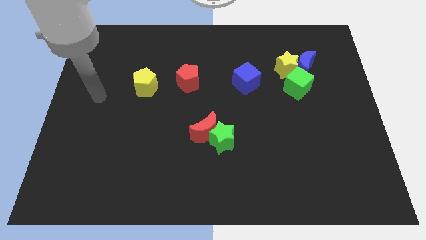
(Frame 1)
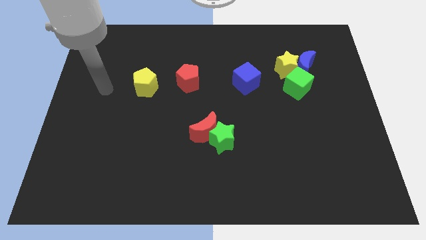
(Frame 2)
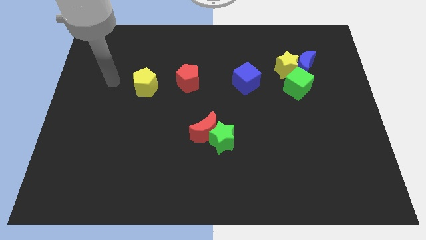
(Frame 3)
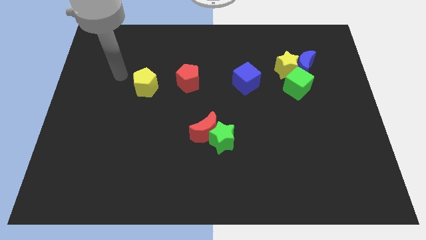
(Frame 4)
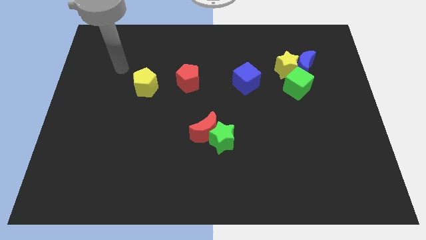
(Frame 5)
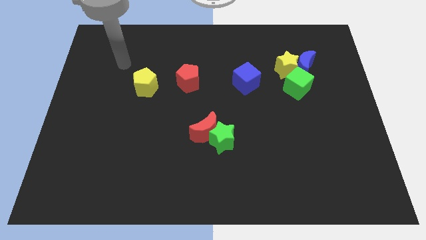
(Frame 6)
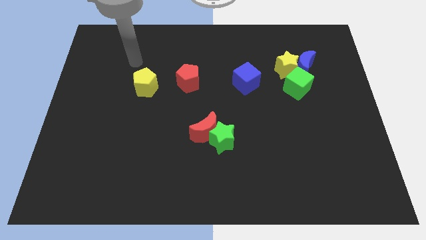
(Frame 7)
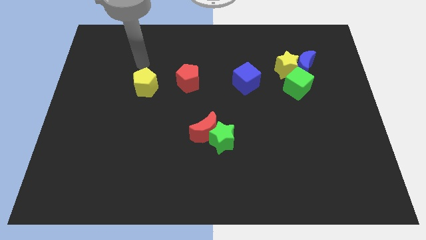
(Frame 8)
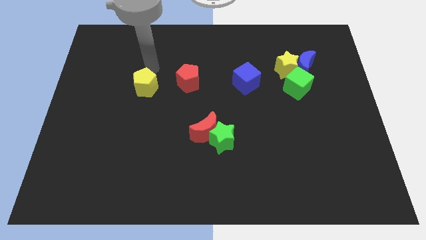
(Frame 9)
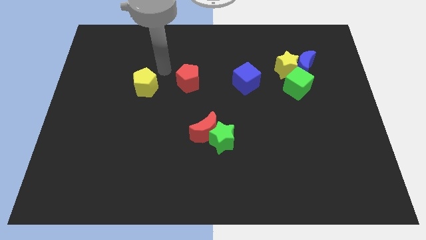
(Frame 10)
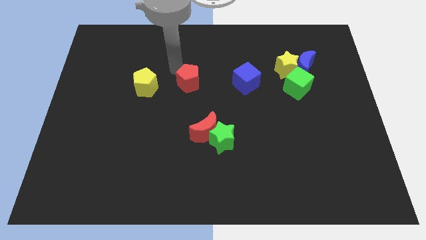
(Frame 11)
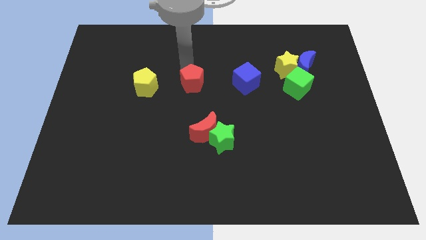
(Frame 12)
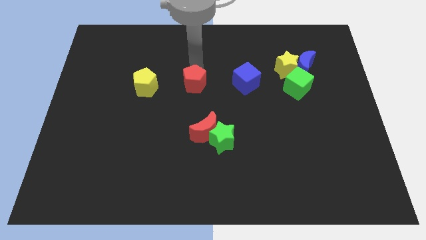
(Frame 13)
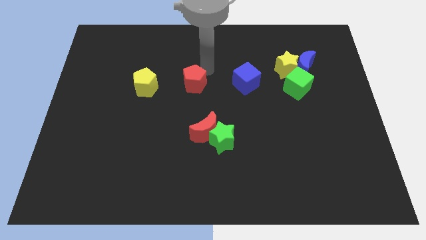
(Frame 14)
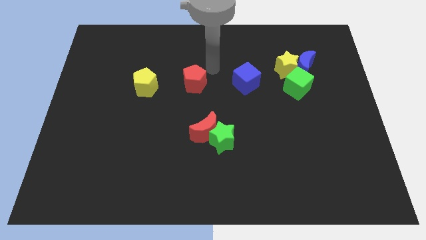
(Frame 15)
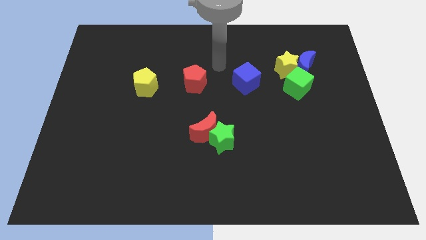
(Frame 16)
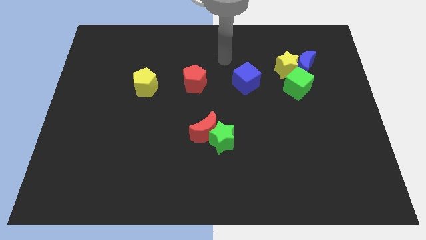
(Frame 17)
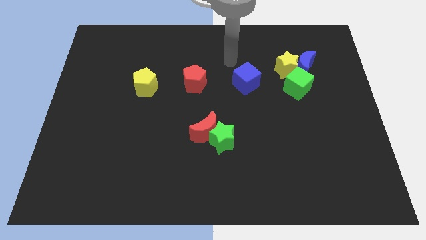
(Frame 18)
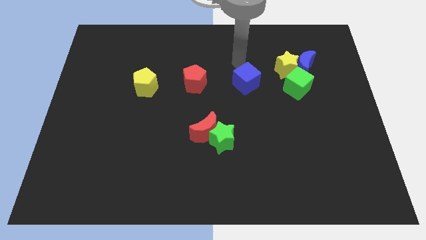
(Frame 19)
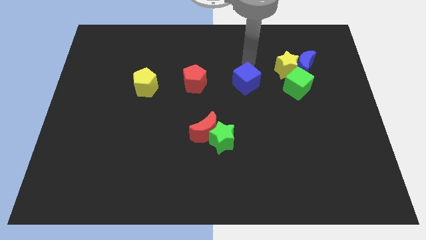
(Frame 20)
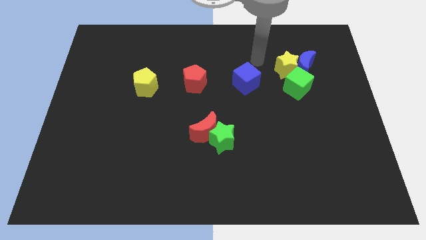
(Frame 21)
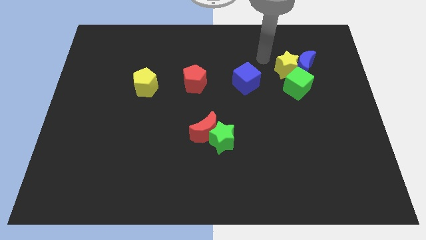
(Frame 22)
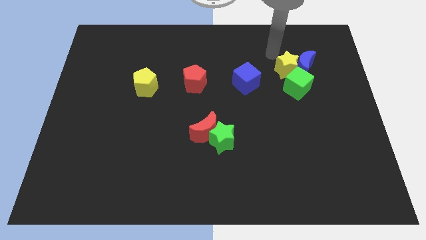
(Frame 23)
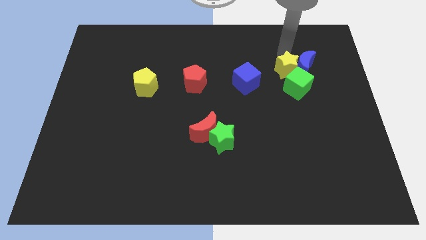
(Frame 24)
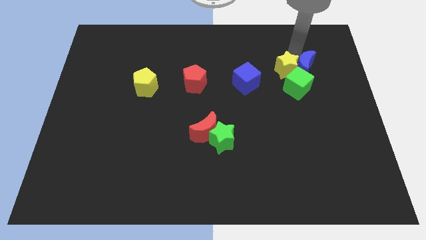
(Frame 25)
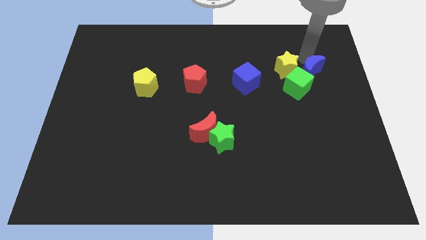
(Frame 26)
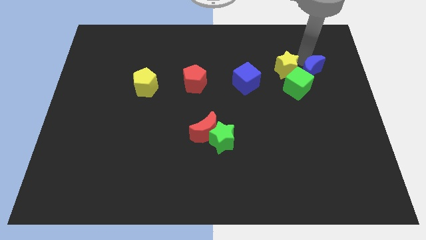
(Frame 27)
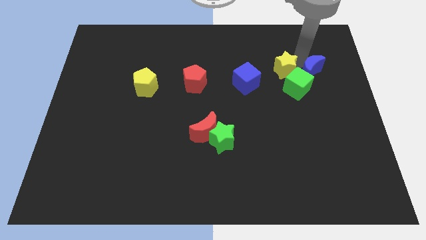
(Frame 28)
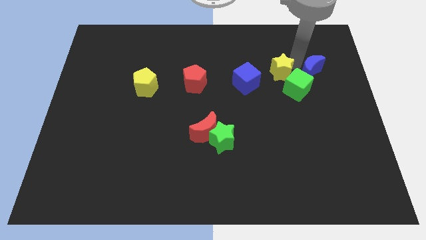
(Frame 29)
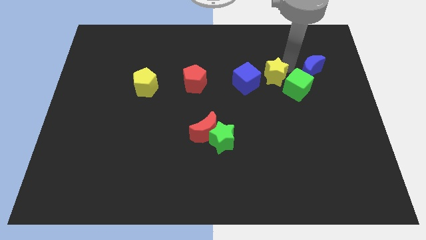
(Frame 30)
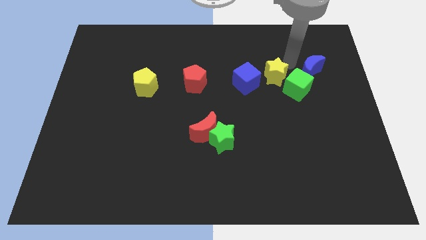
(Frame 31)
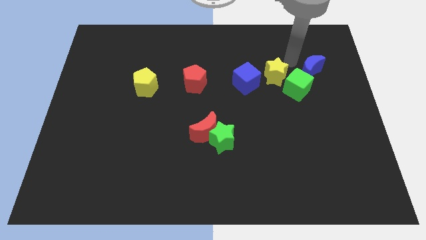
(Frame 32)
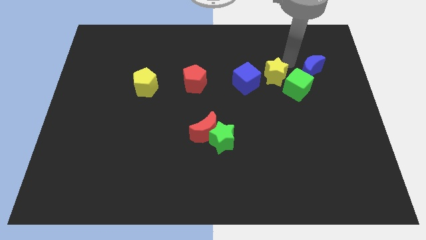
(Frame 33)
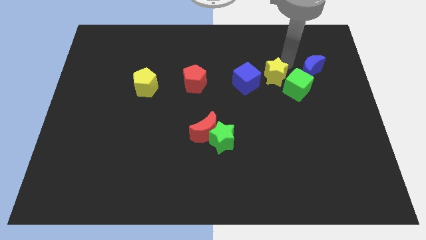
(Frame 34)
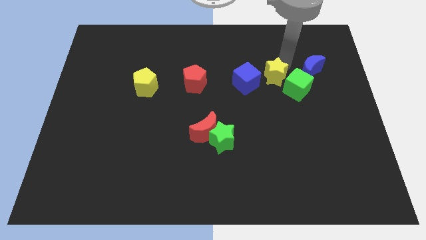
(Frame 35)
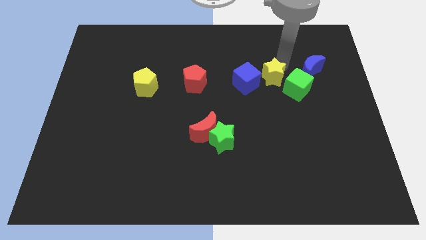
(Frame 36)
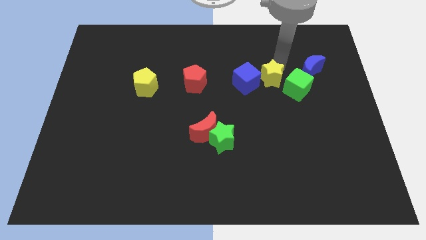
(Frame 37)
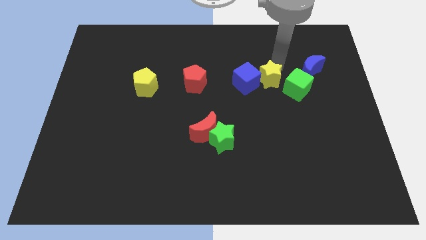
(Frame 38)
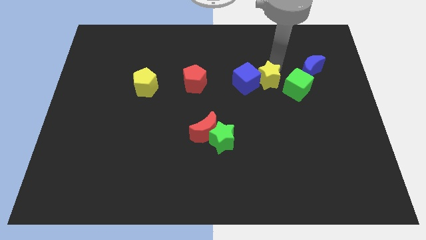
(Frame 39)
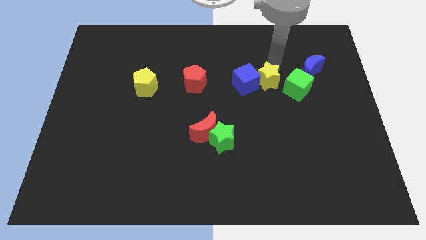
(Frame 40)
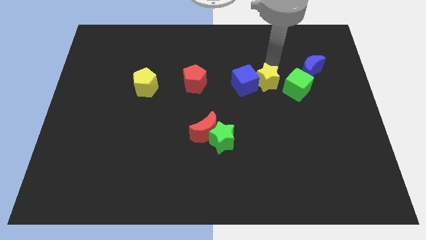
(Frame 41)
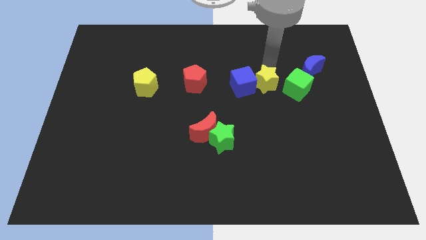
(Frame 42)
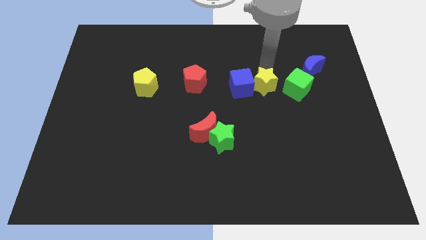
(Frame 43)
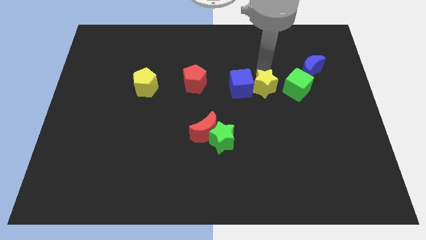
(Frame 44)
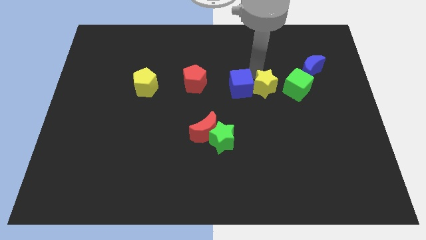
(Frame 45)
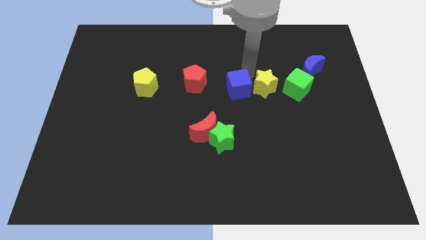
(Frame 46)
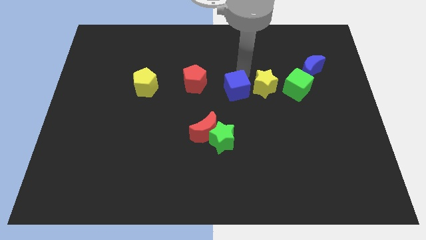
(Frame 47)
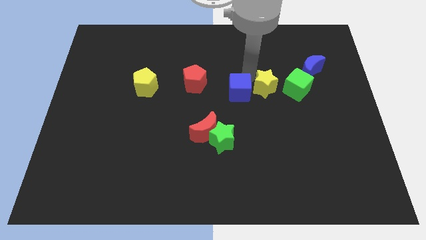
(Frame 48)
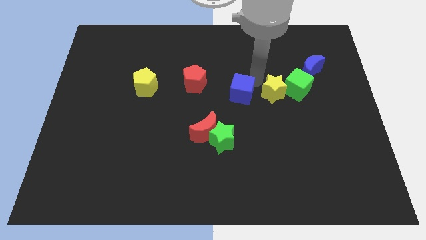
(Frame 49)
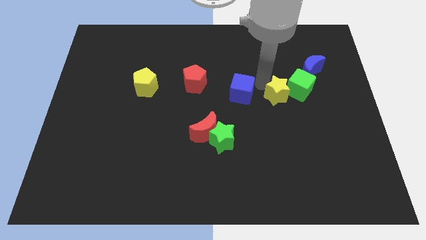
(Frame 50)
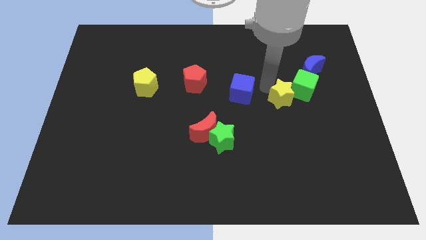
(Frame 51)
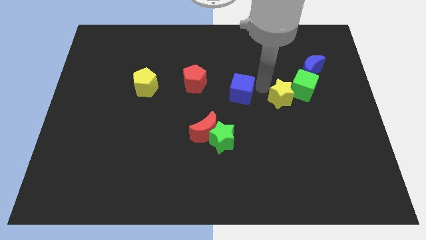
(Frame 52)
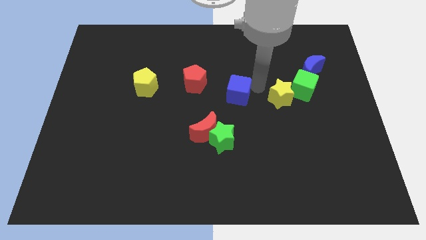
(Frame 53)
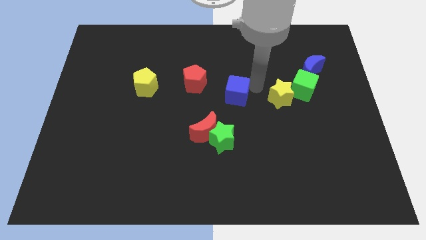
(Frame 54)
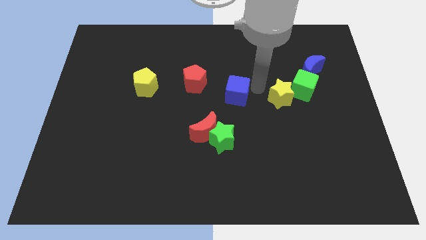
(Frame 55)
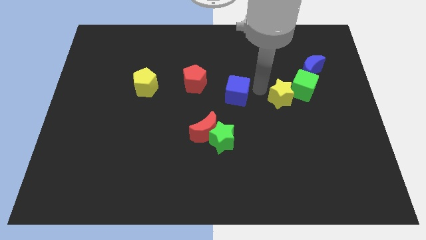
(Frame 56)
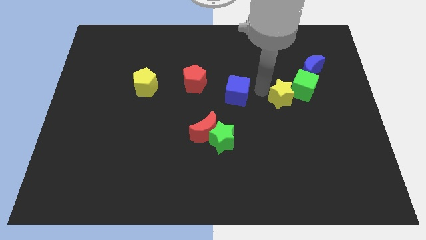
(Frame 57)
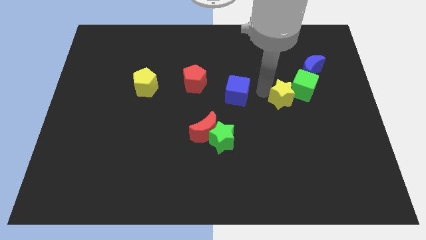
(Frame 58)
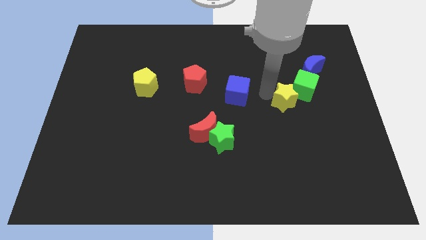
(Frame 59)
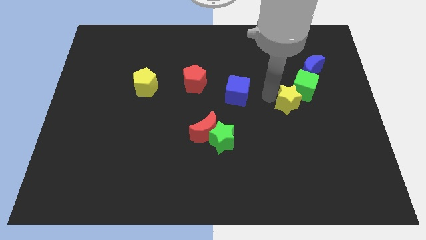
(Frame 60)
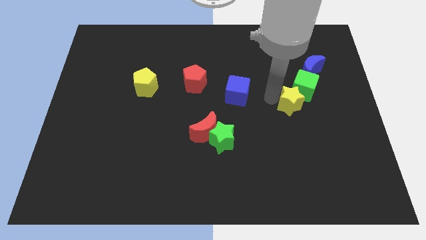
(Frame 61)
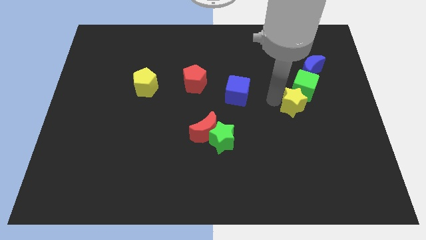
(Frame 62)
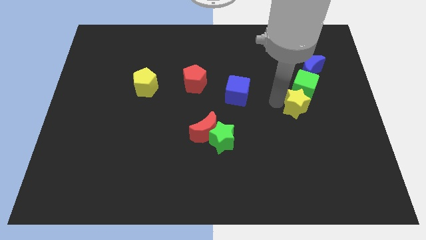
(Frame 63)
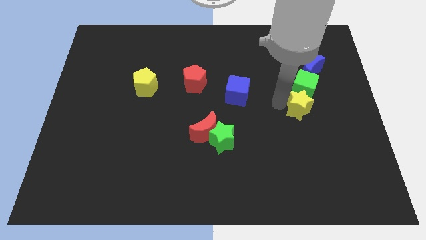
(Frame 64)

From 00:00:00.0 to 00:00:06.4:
push the yellow star below the blue moon

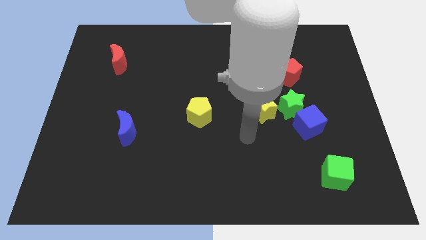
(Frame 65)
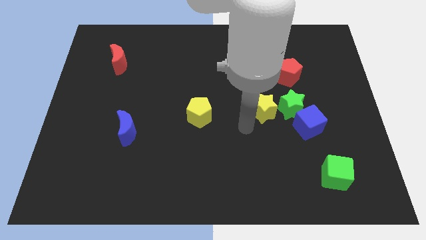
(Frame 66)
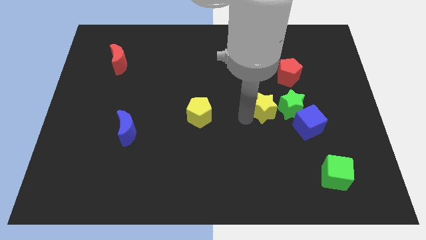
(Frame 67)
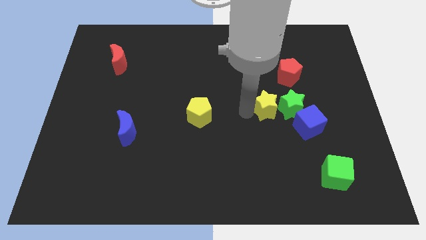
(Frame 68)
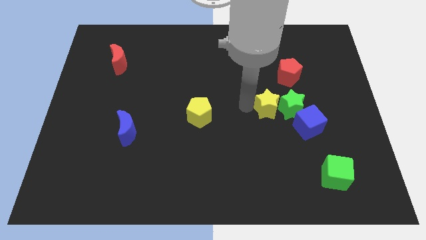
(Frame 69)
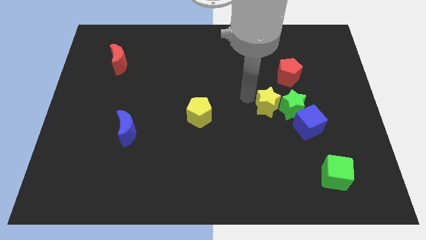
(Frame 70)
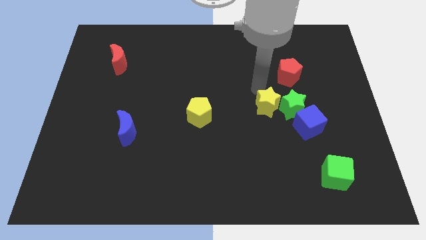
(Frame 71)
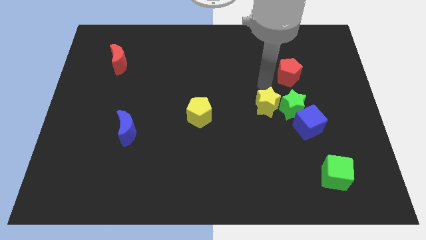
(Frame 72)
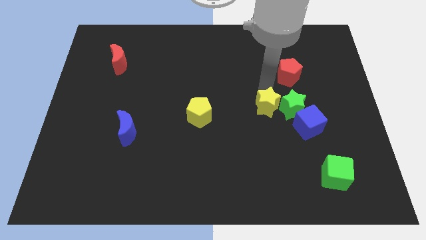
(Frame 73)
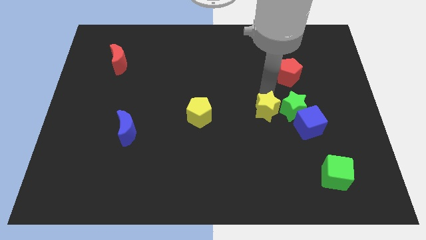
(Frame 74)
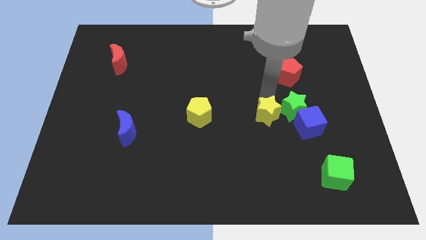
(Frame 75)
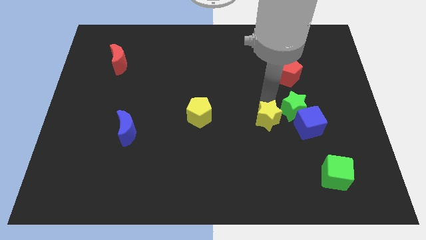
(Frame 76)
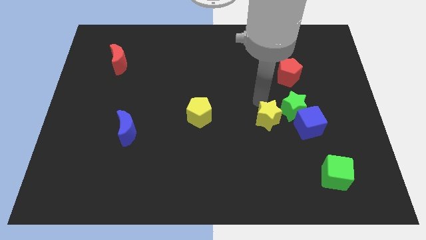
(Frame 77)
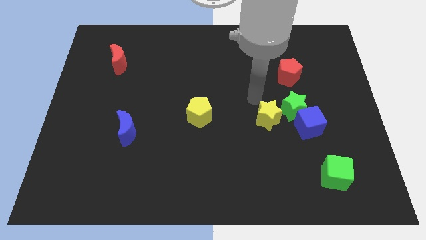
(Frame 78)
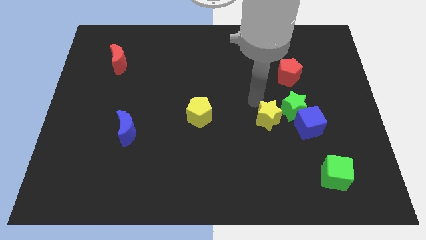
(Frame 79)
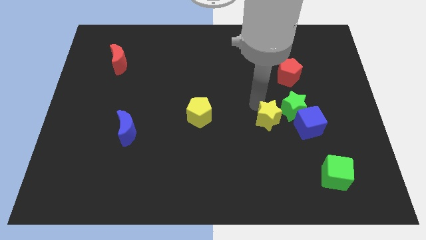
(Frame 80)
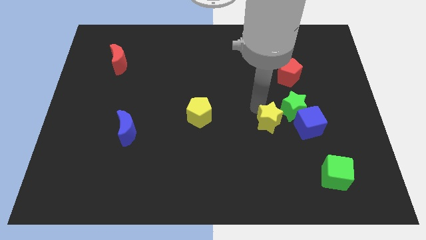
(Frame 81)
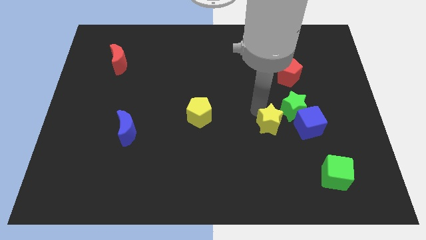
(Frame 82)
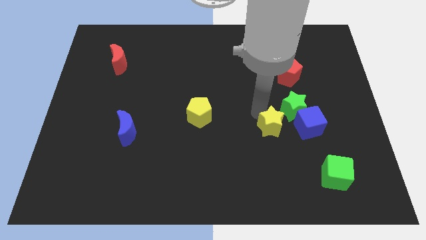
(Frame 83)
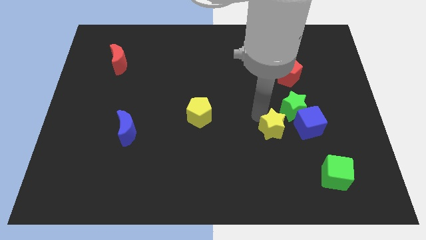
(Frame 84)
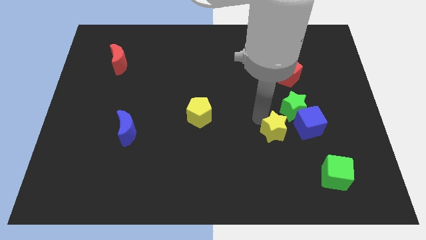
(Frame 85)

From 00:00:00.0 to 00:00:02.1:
push the yellow star diagonally down and to the left of the blue cube
